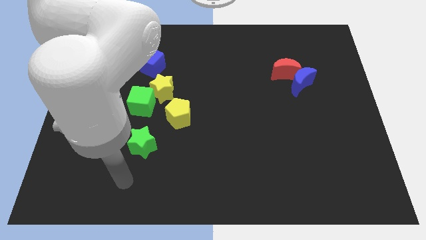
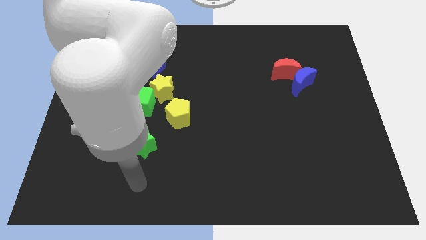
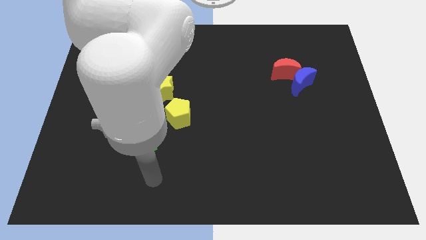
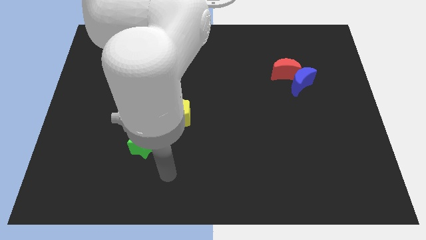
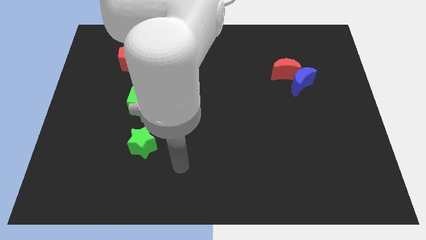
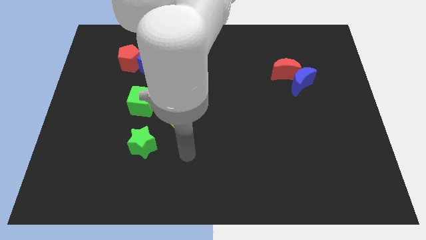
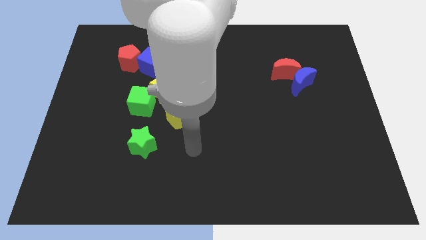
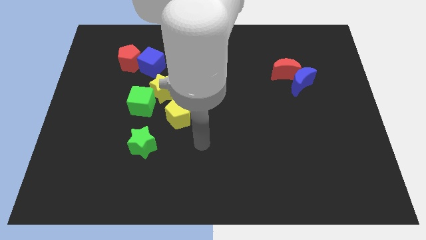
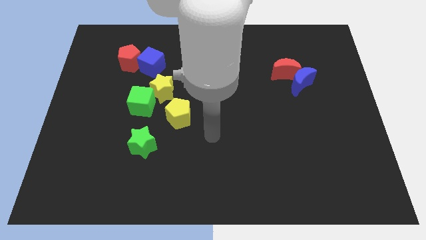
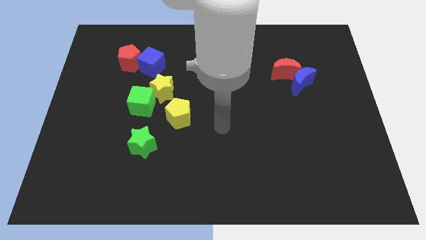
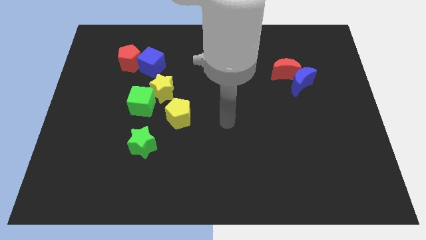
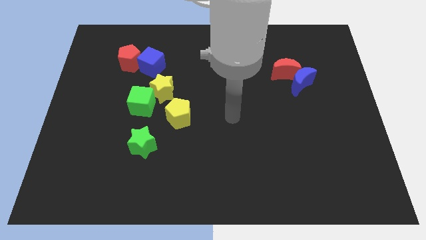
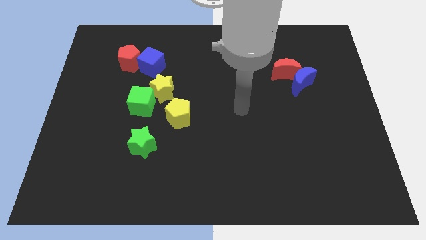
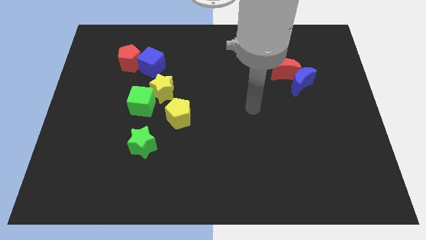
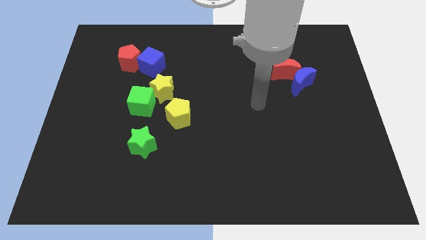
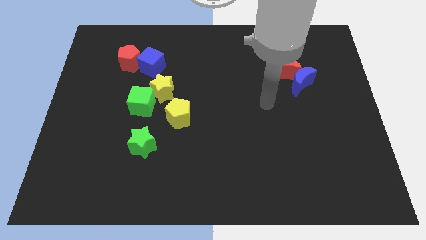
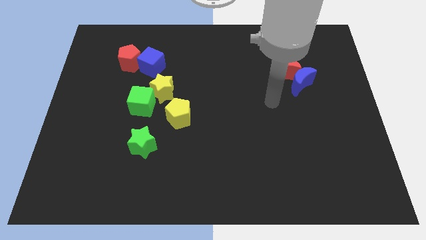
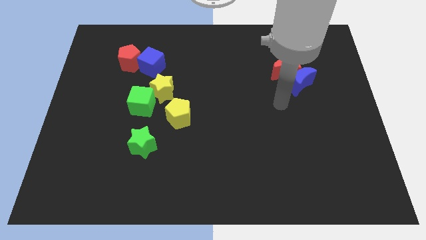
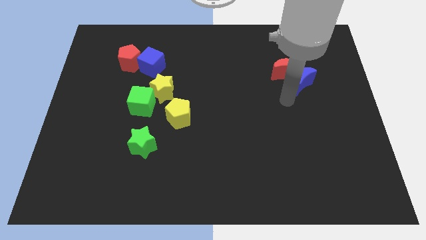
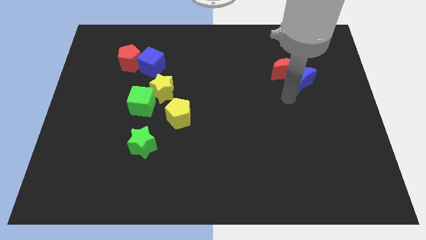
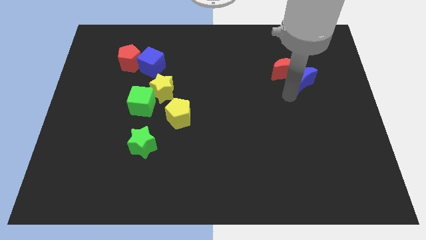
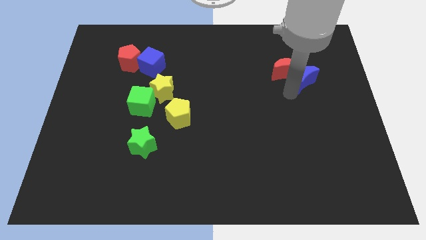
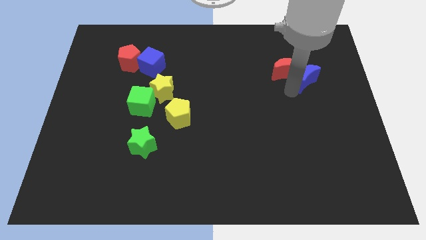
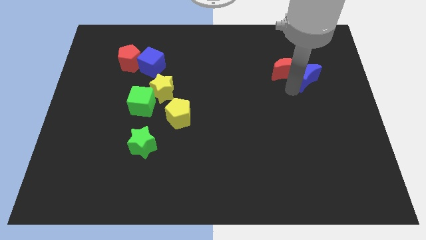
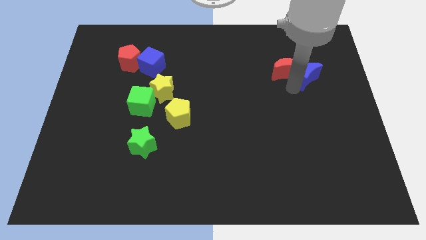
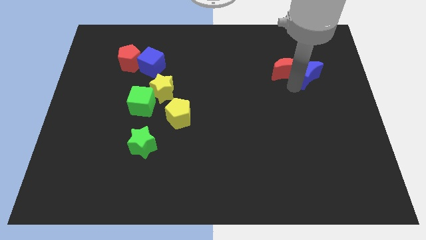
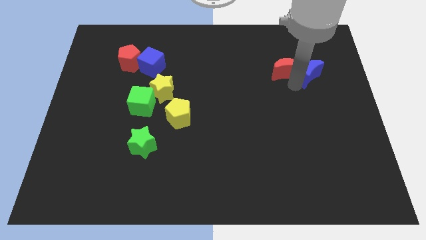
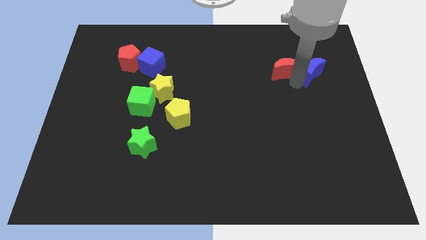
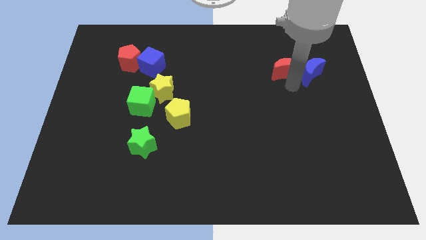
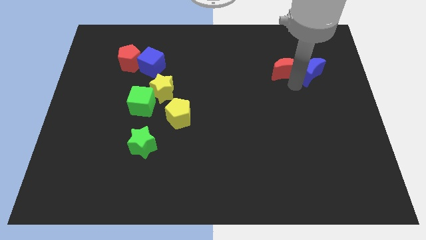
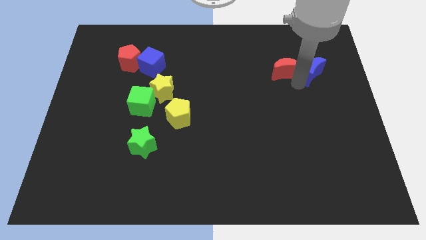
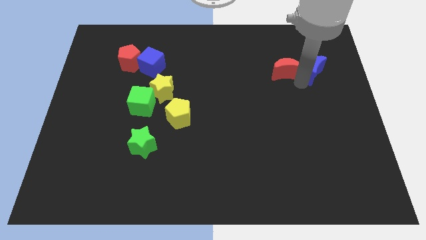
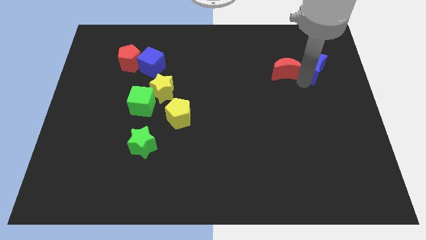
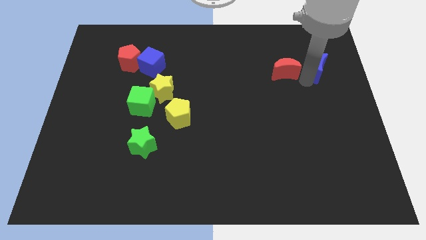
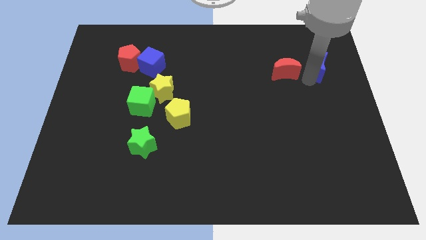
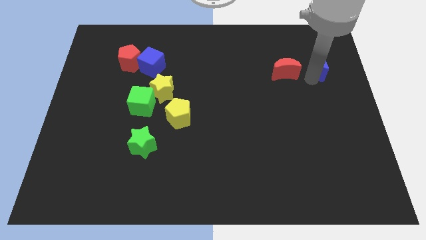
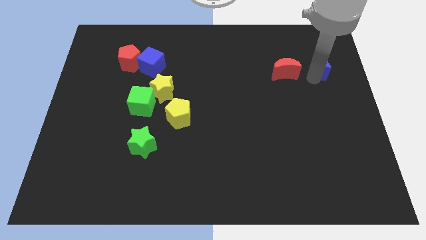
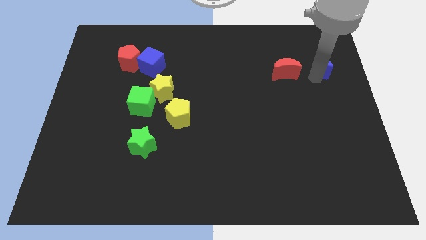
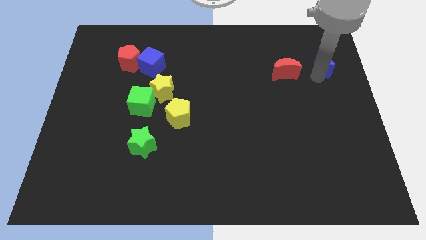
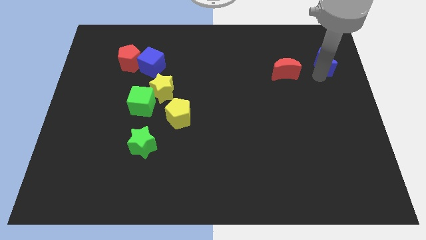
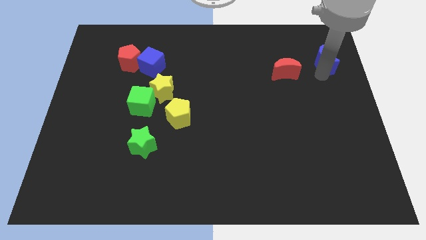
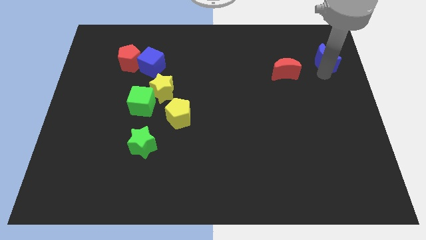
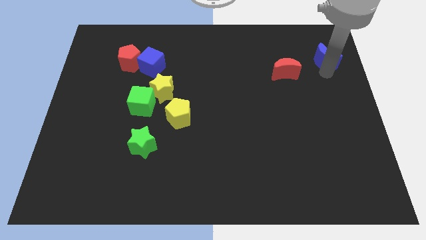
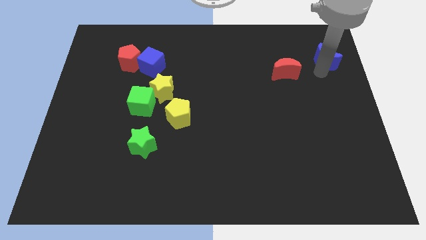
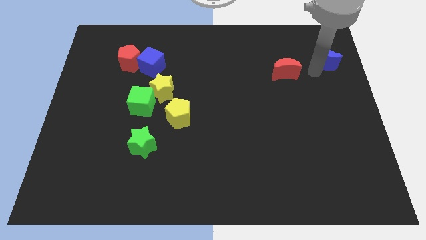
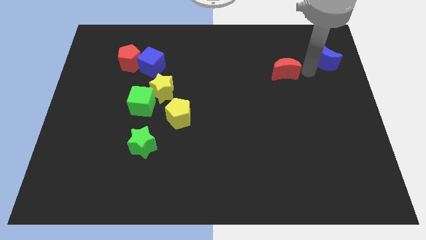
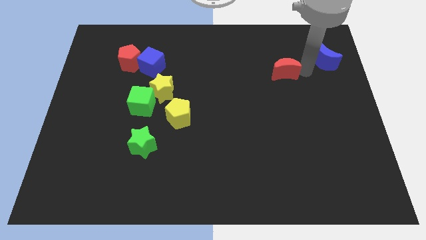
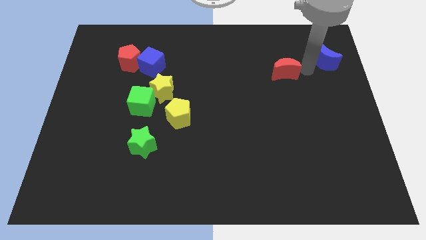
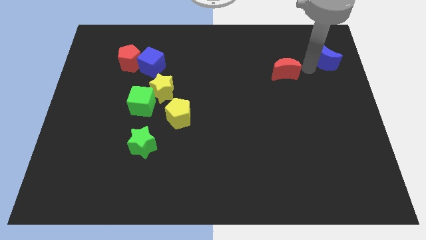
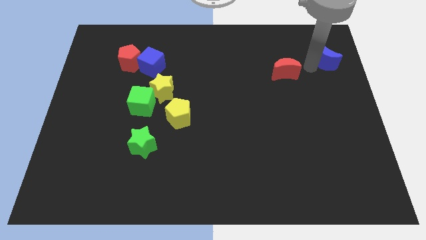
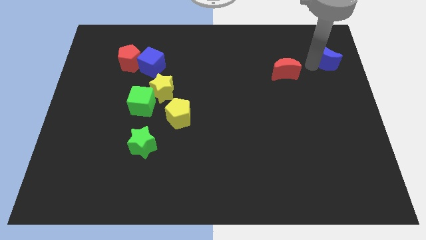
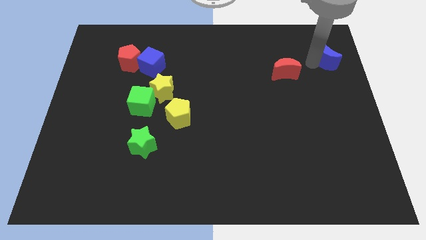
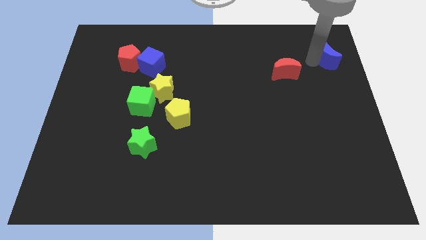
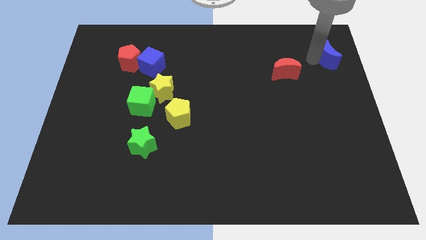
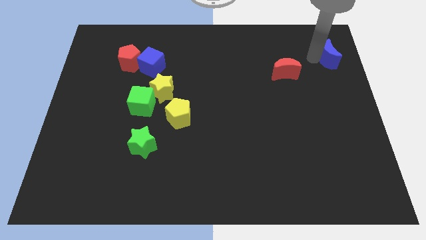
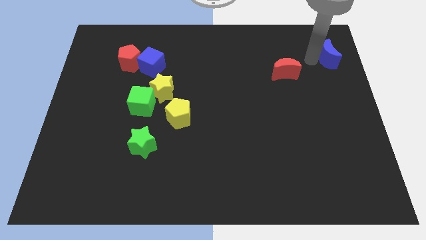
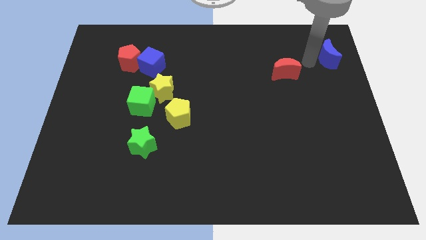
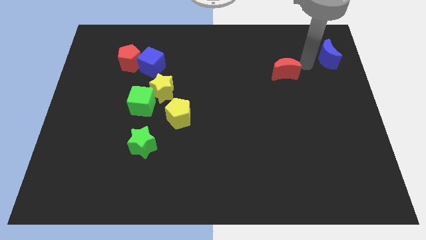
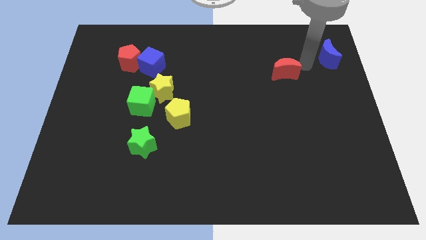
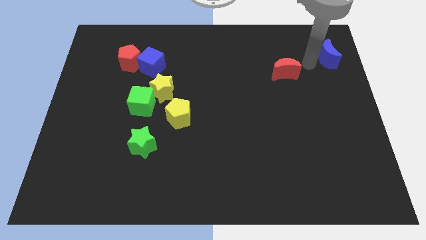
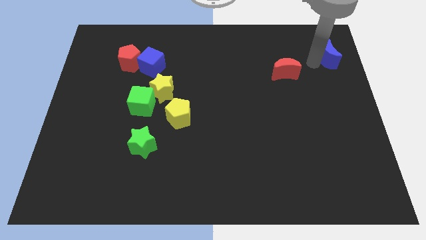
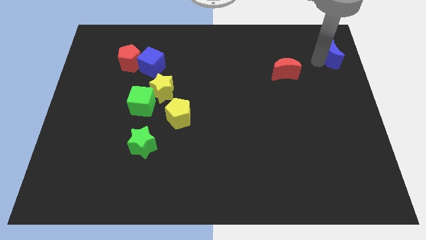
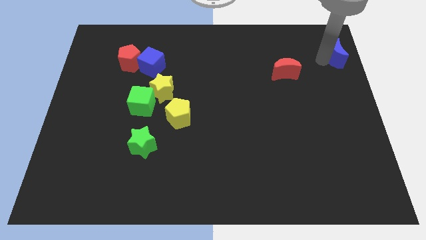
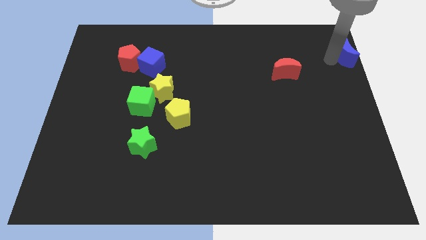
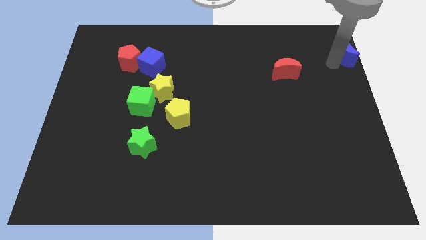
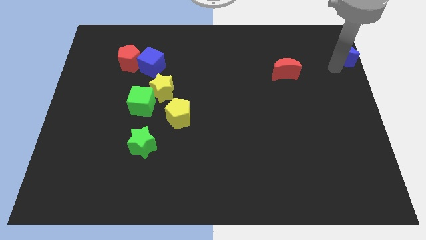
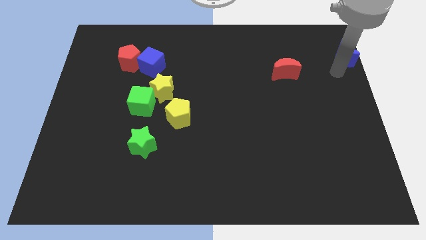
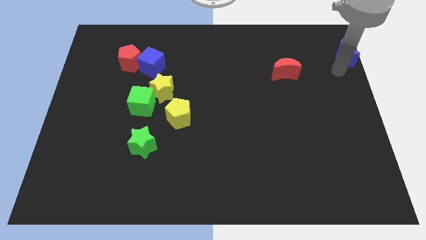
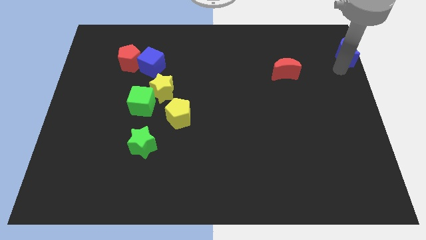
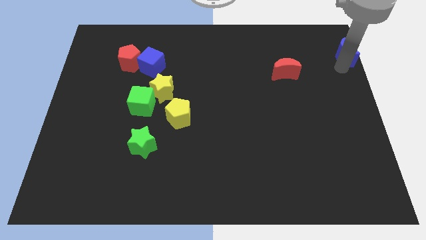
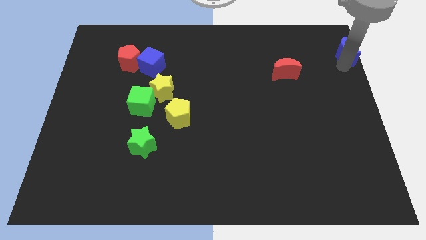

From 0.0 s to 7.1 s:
slide the blue moon to the top right of the board

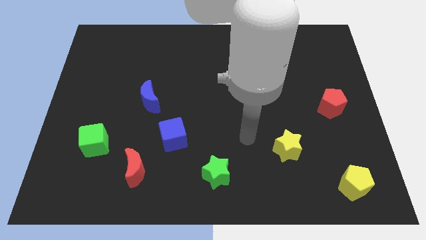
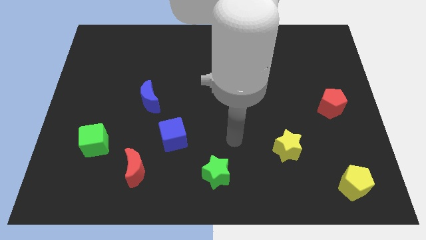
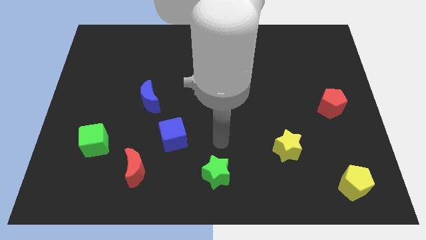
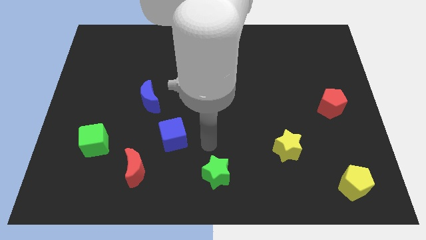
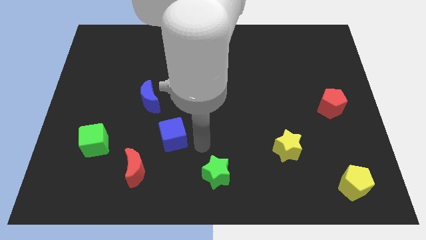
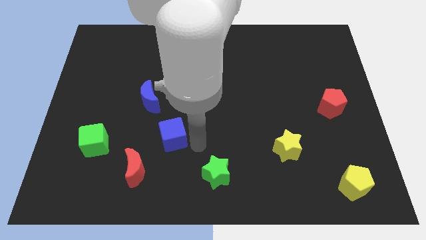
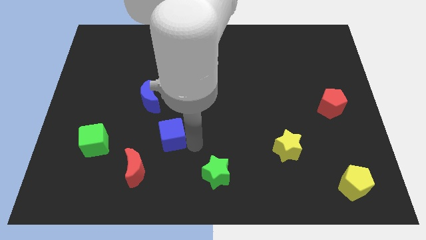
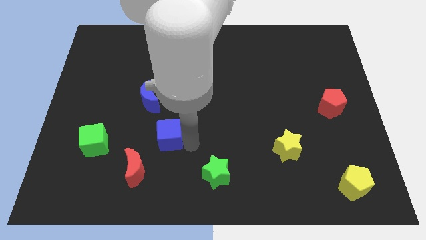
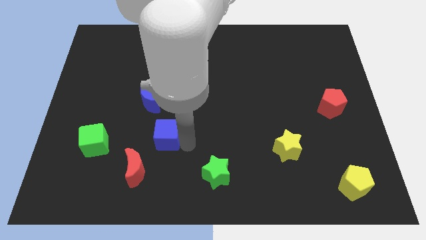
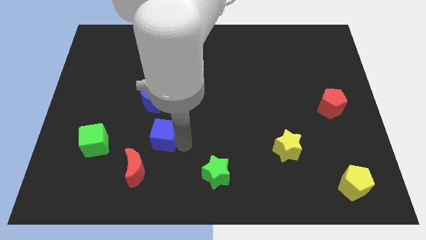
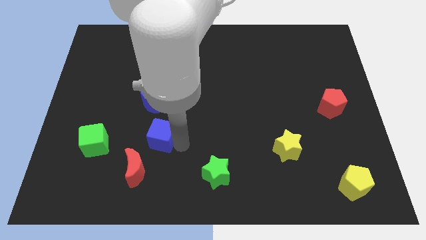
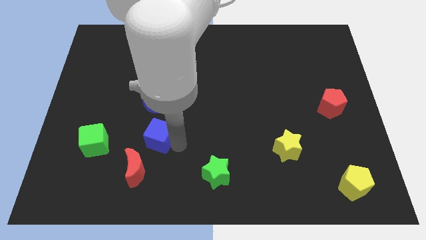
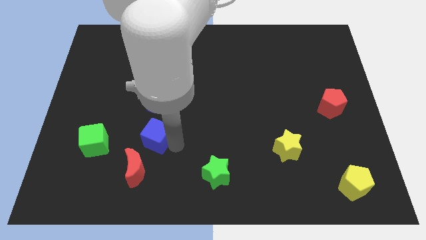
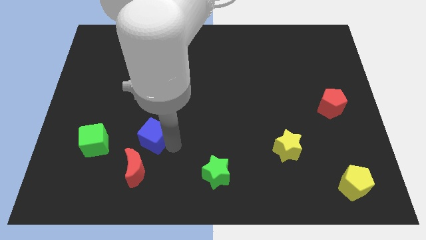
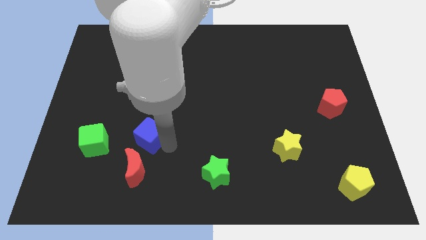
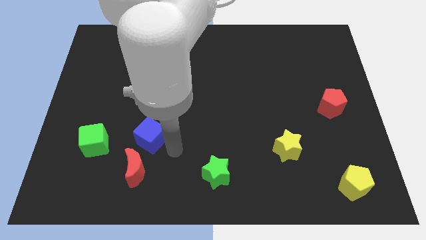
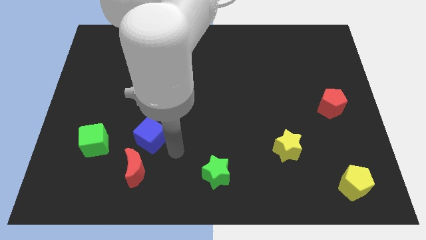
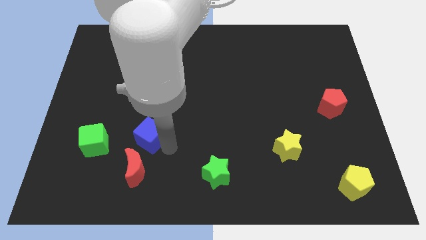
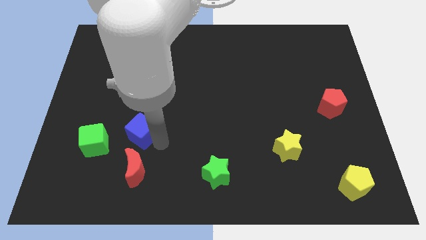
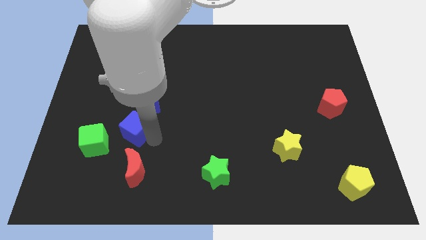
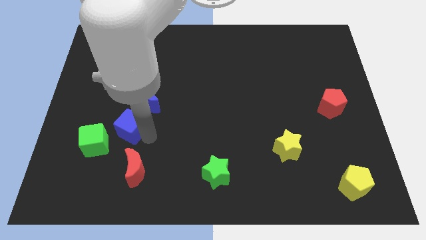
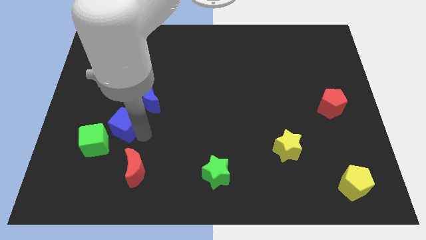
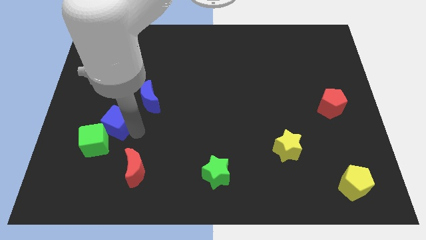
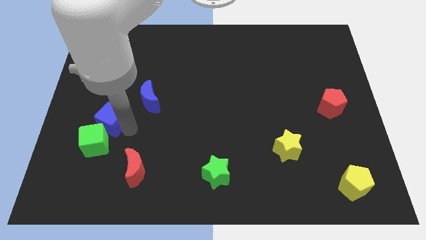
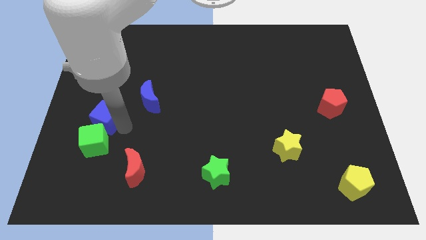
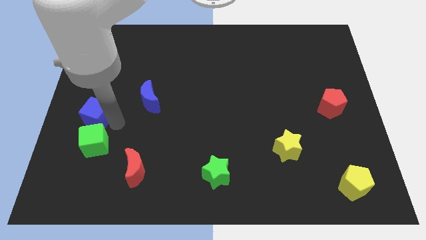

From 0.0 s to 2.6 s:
put the blue cube to the left side of the board
